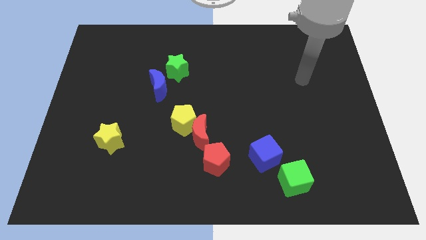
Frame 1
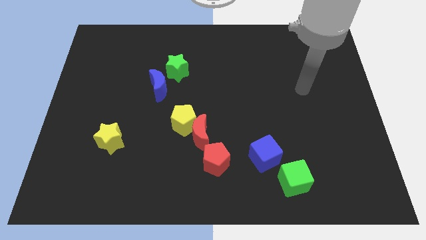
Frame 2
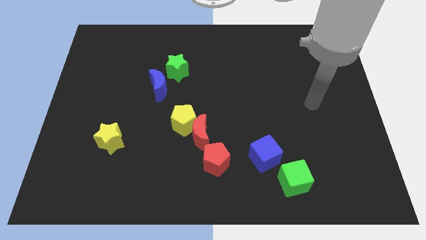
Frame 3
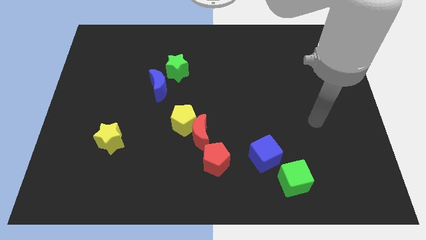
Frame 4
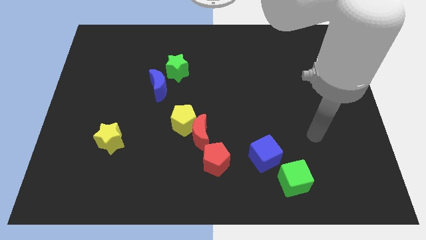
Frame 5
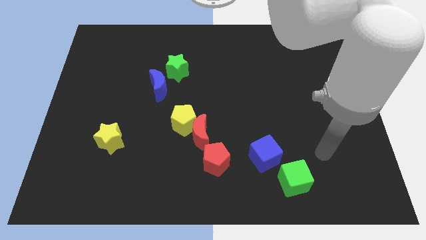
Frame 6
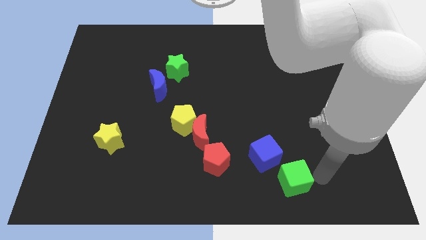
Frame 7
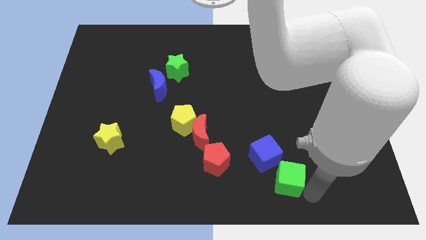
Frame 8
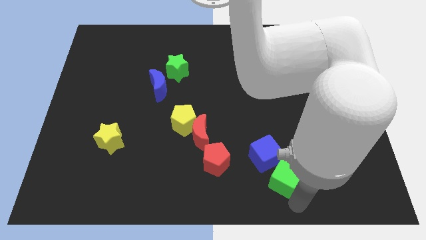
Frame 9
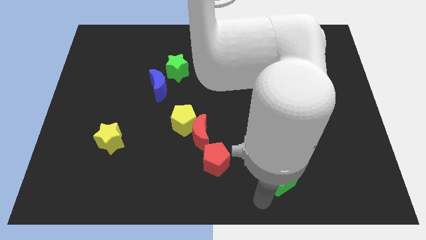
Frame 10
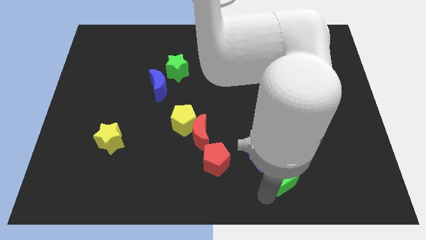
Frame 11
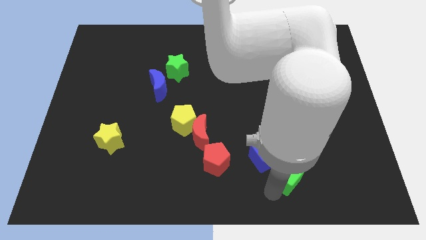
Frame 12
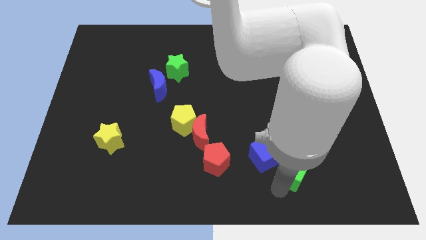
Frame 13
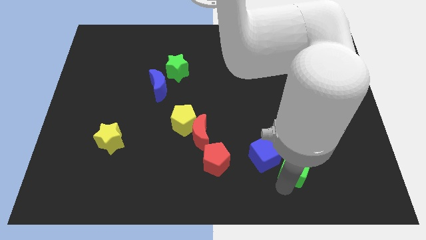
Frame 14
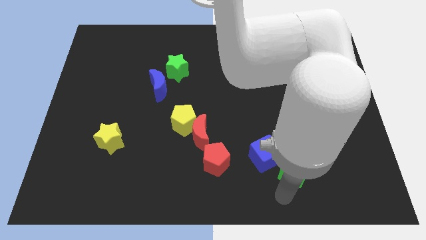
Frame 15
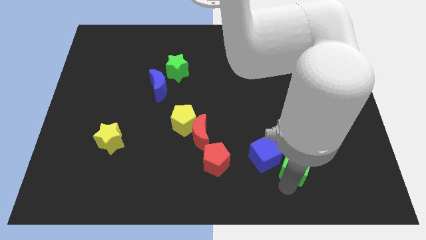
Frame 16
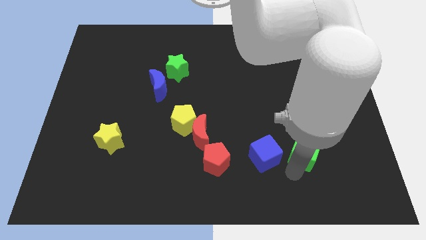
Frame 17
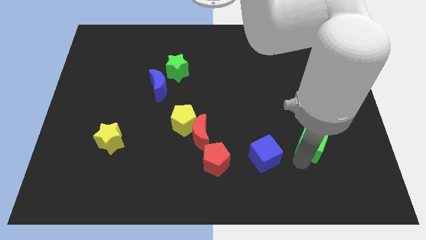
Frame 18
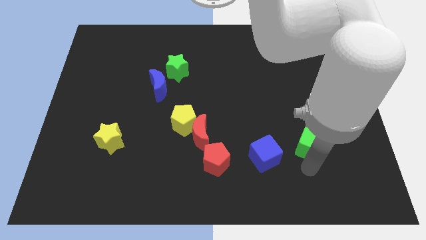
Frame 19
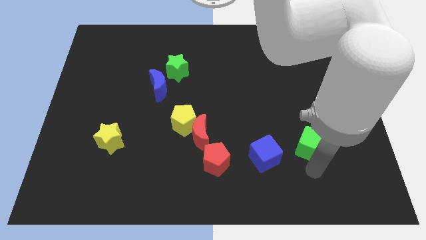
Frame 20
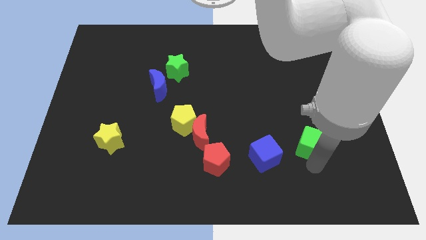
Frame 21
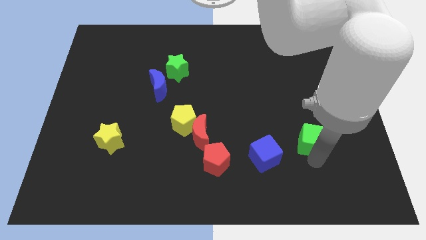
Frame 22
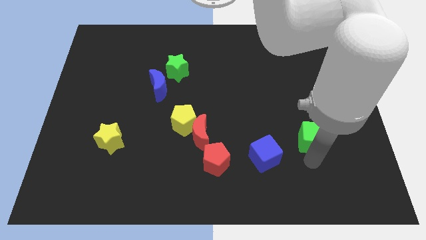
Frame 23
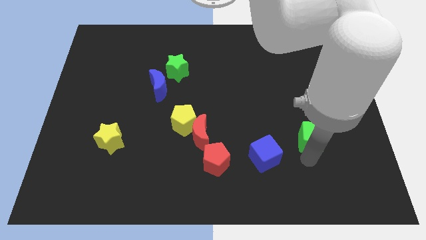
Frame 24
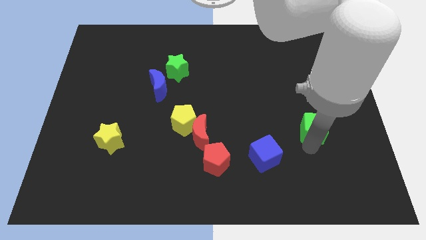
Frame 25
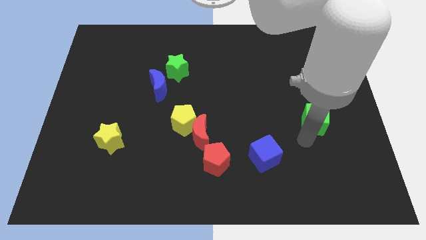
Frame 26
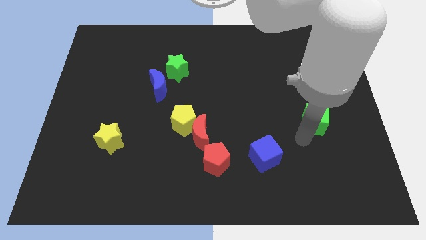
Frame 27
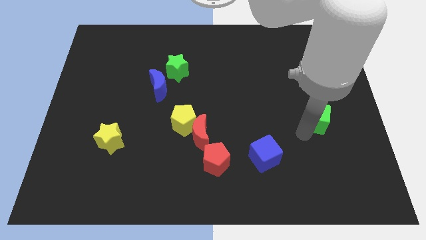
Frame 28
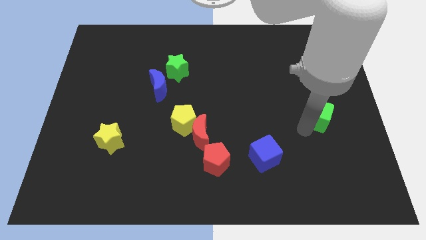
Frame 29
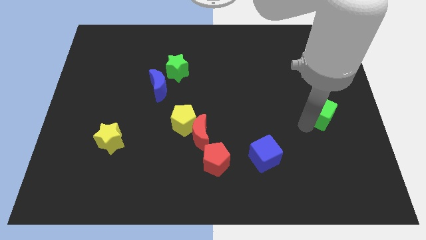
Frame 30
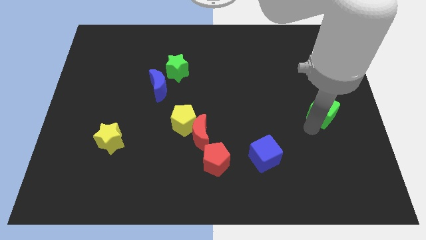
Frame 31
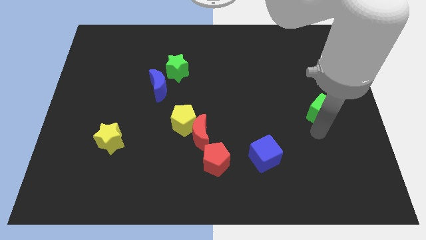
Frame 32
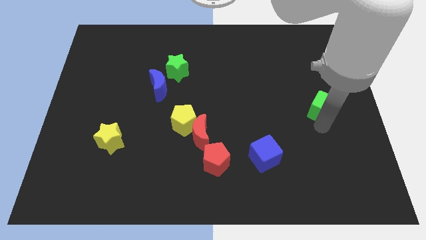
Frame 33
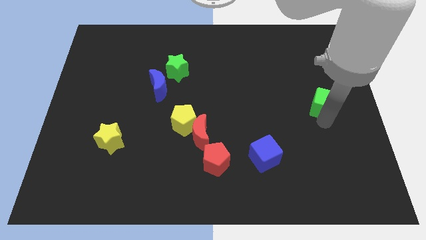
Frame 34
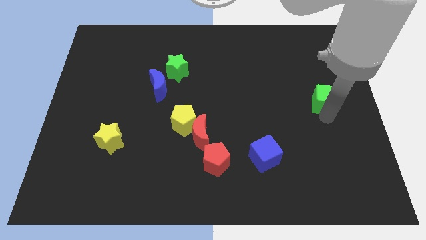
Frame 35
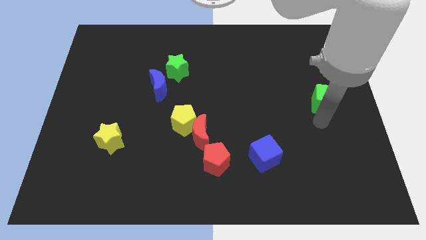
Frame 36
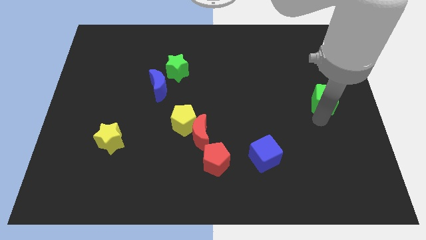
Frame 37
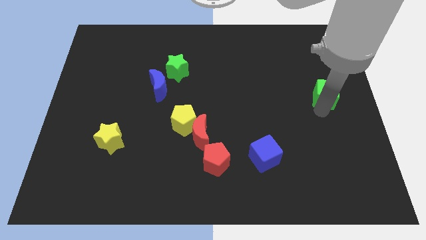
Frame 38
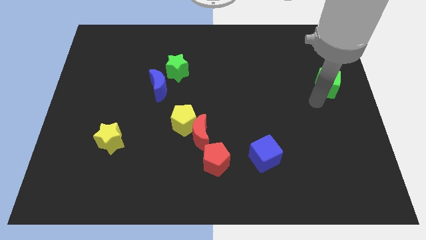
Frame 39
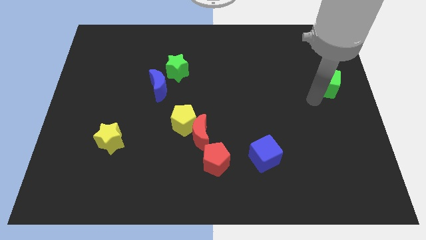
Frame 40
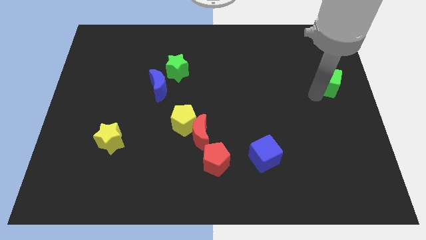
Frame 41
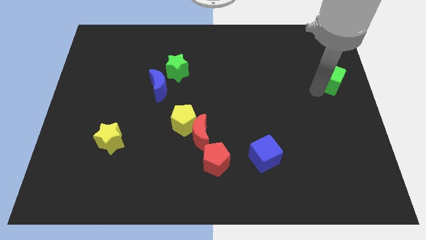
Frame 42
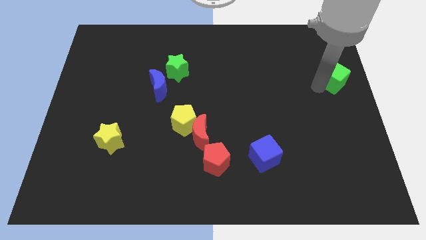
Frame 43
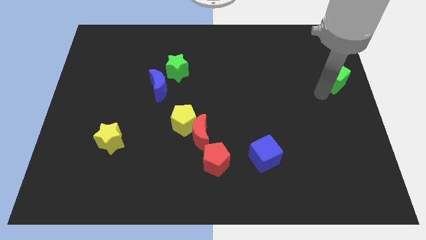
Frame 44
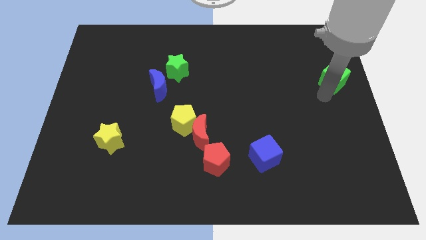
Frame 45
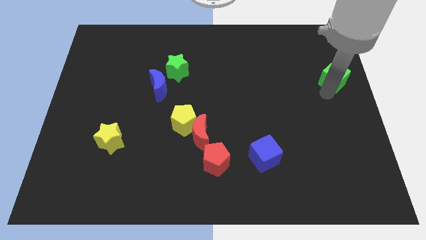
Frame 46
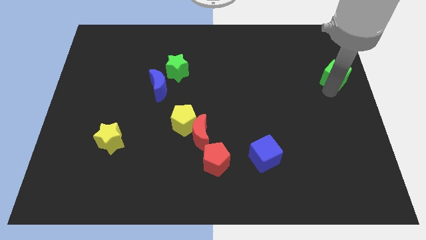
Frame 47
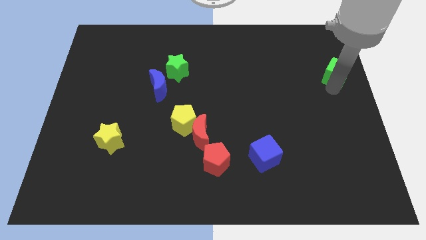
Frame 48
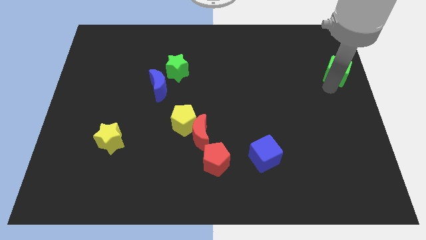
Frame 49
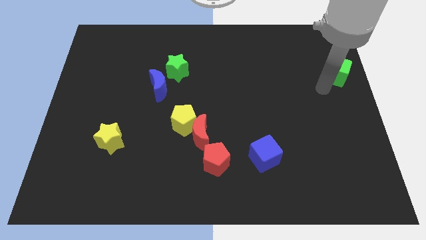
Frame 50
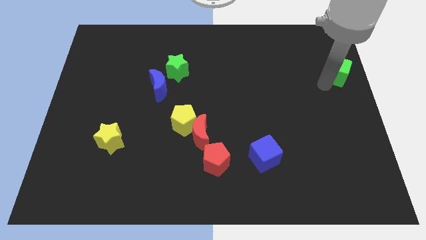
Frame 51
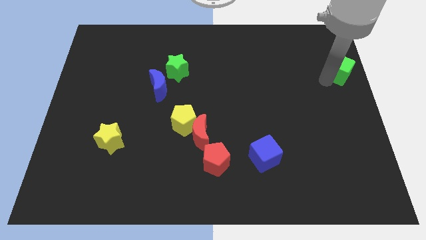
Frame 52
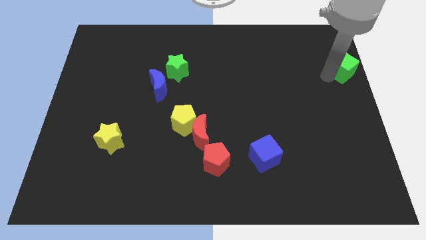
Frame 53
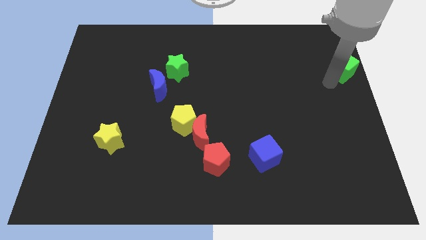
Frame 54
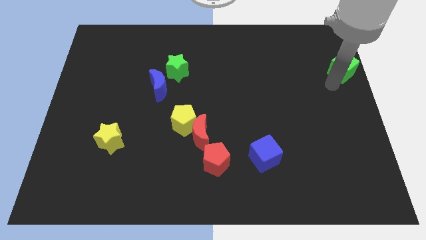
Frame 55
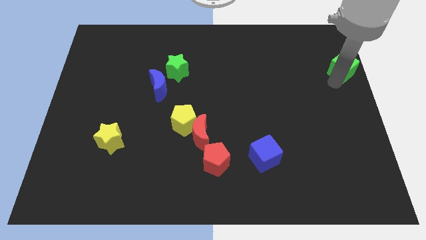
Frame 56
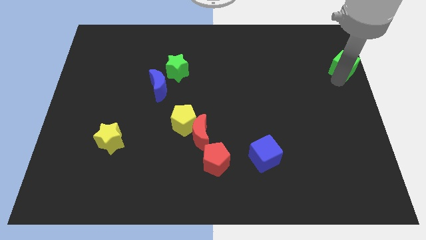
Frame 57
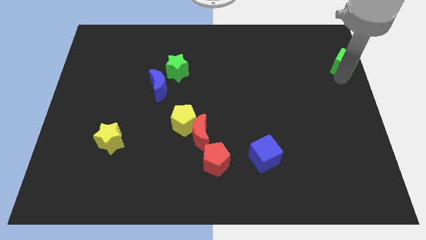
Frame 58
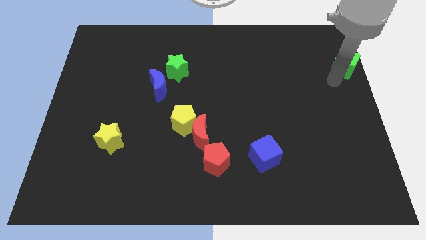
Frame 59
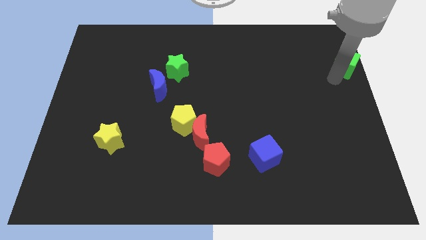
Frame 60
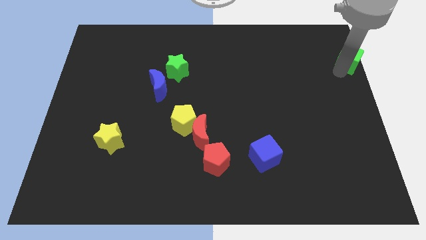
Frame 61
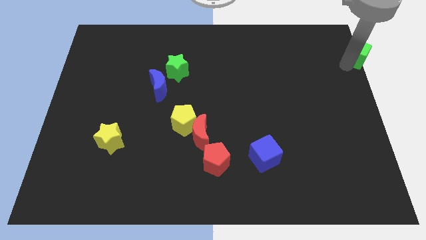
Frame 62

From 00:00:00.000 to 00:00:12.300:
slide the green cube to the upper right corner
